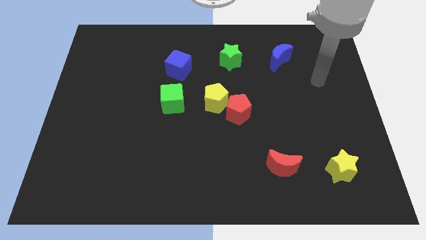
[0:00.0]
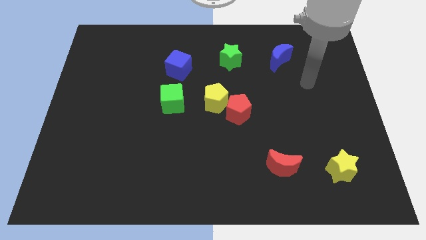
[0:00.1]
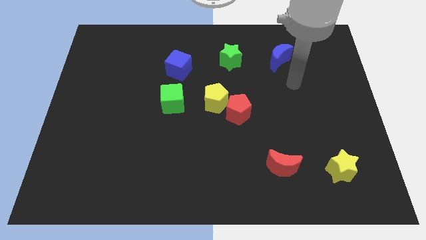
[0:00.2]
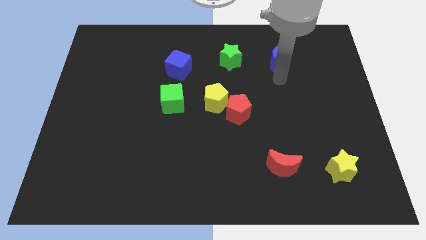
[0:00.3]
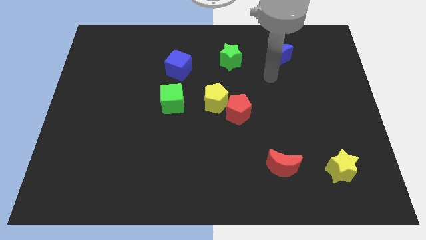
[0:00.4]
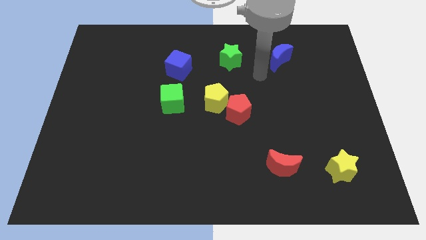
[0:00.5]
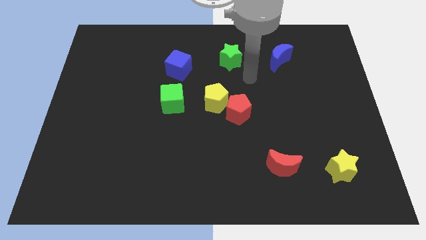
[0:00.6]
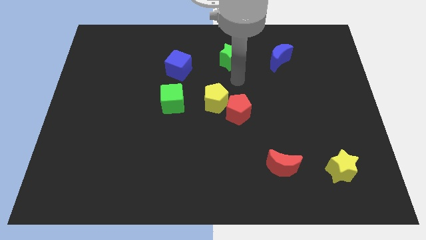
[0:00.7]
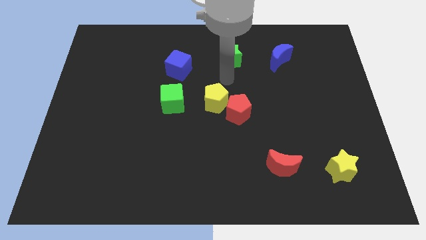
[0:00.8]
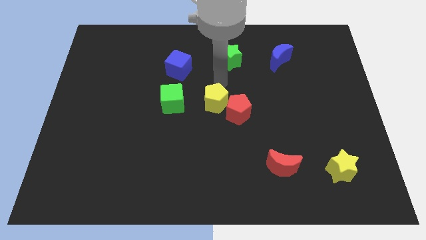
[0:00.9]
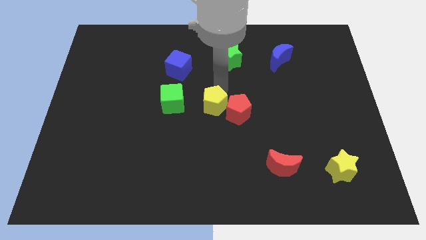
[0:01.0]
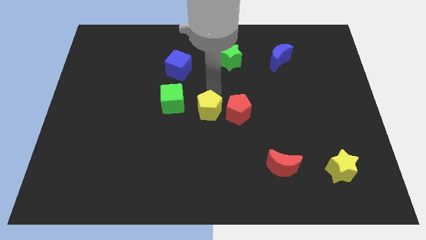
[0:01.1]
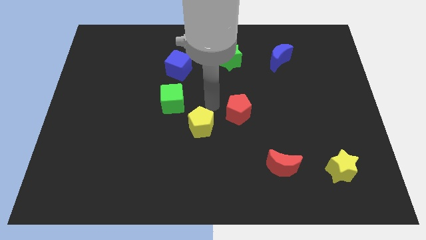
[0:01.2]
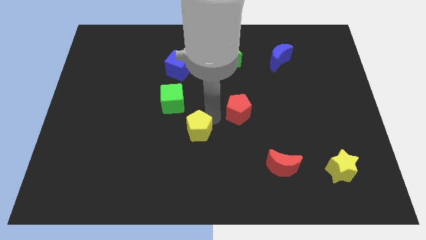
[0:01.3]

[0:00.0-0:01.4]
move the red pentagon away from the yellow pentagon

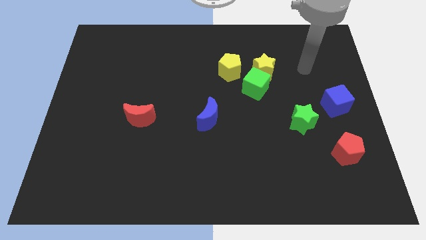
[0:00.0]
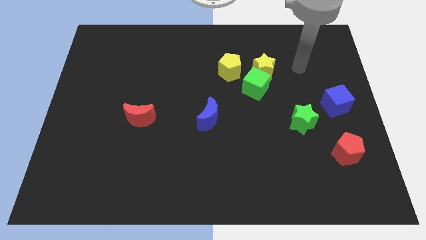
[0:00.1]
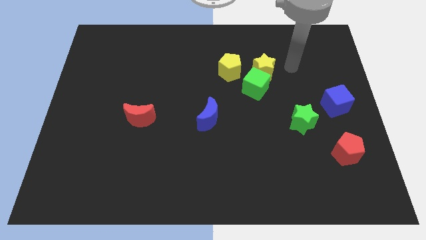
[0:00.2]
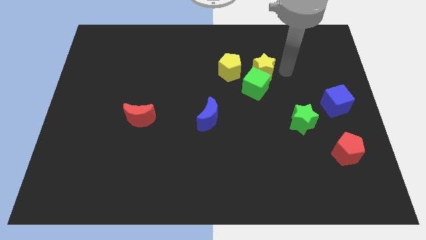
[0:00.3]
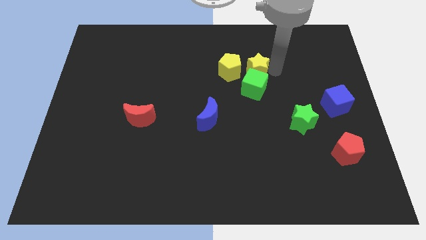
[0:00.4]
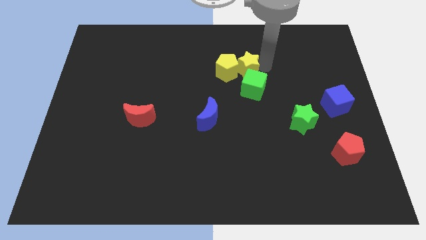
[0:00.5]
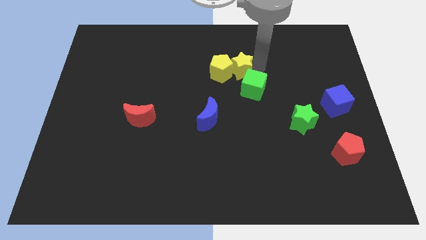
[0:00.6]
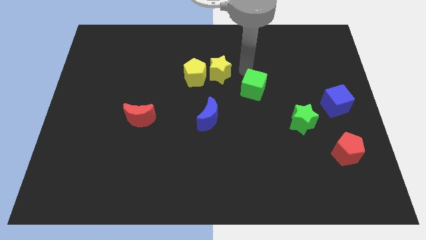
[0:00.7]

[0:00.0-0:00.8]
pull the green cube apart from the yellow star and yellow pentagon

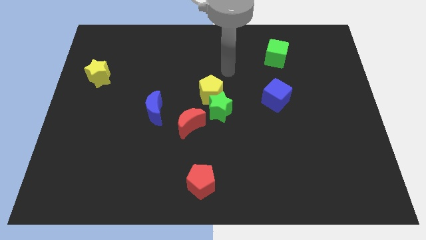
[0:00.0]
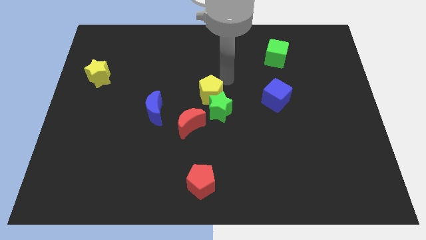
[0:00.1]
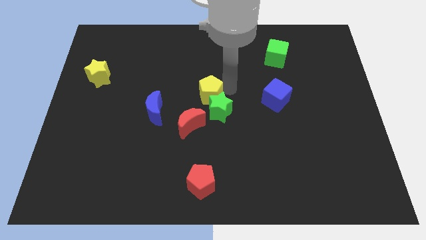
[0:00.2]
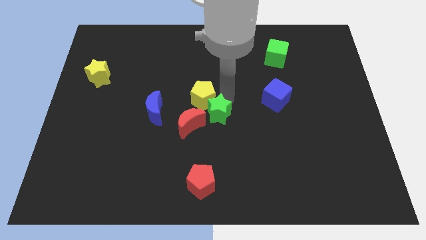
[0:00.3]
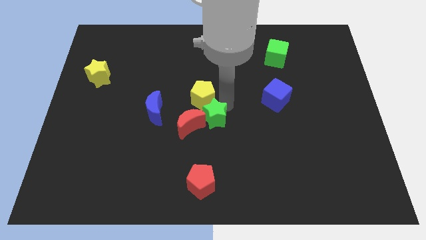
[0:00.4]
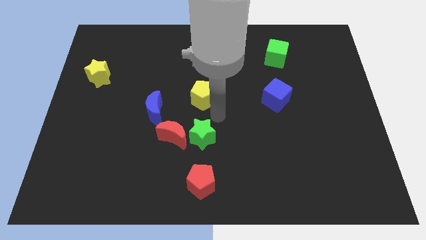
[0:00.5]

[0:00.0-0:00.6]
separate the yellow pentagon from the green star

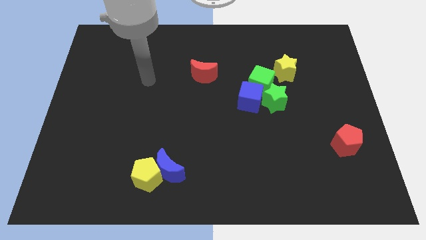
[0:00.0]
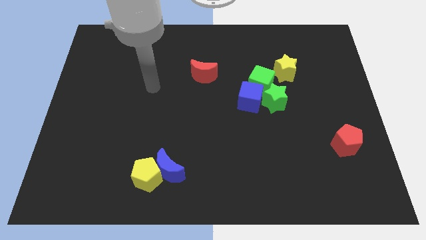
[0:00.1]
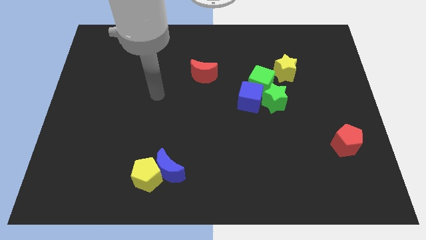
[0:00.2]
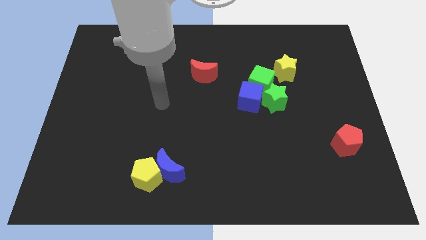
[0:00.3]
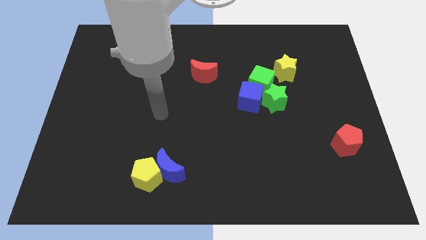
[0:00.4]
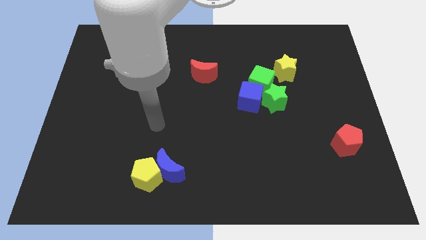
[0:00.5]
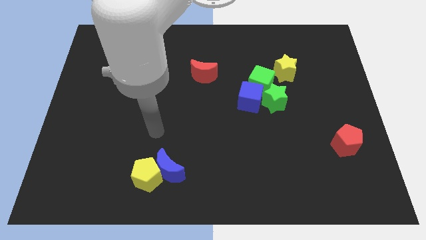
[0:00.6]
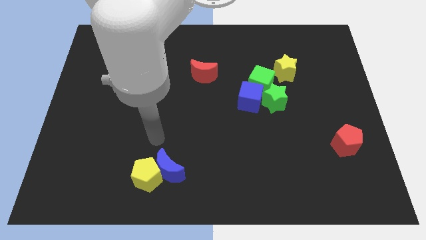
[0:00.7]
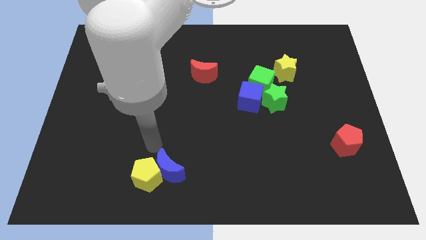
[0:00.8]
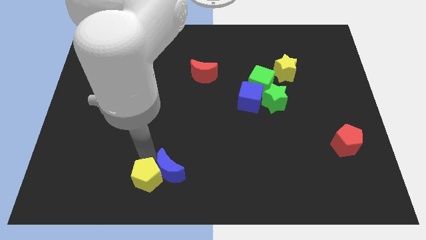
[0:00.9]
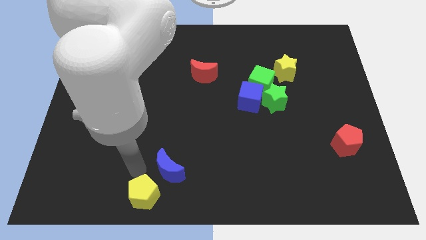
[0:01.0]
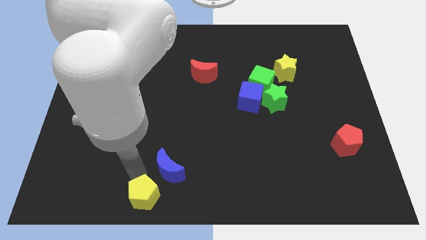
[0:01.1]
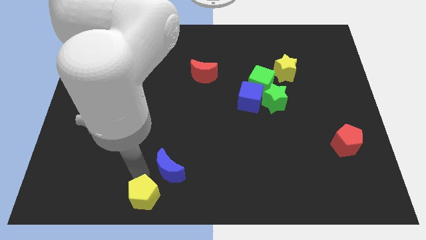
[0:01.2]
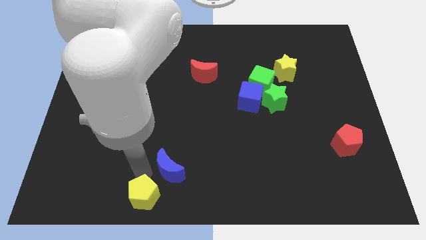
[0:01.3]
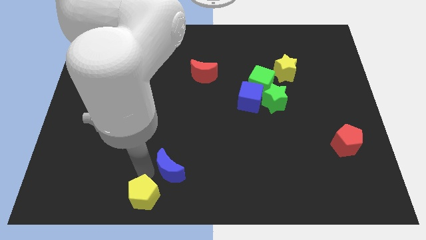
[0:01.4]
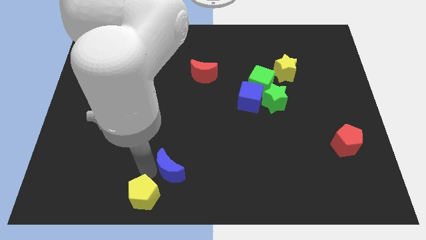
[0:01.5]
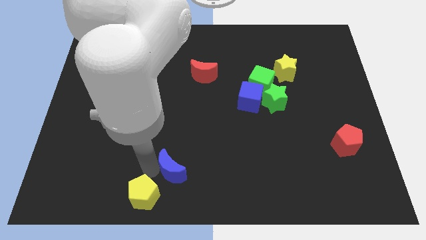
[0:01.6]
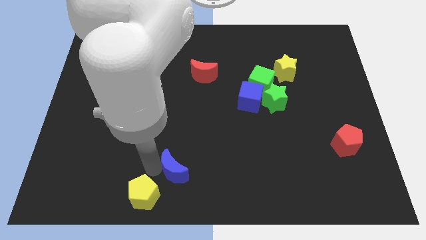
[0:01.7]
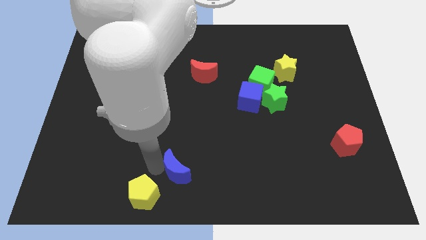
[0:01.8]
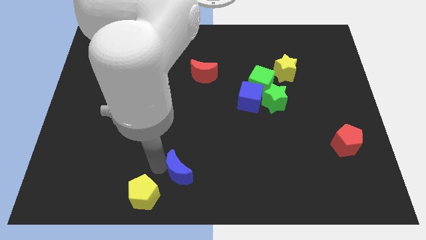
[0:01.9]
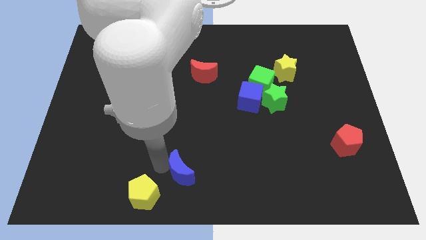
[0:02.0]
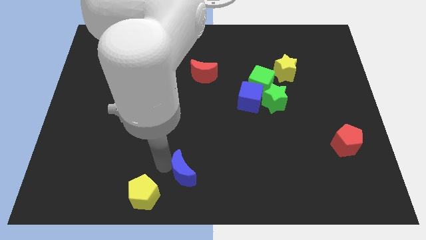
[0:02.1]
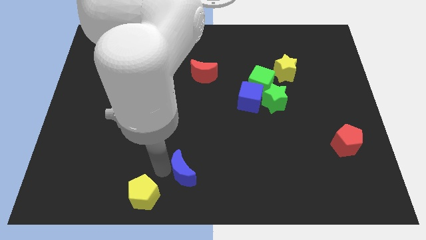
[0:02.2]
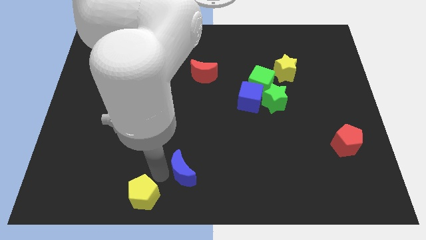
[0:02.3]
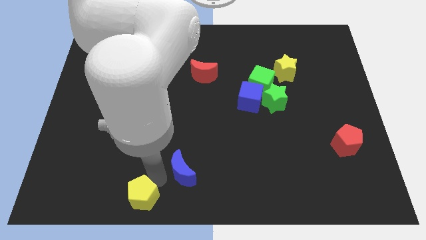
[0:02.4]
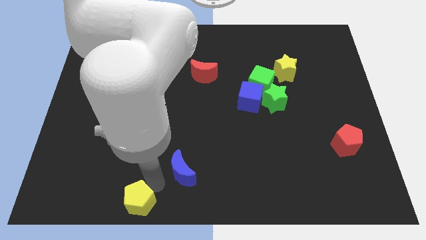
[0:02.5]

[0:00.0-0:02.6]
separate the blue moon from the yellow pentagon

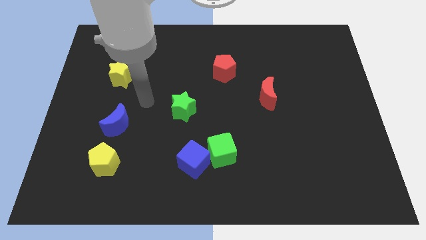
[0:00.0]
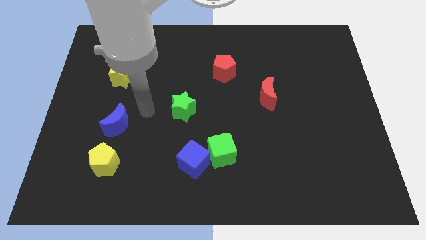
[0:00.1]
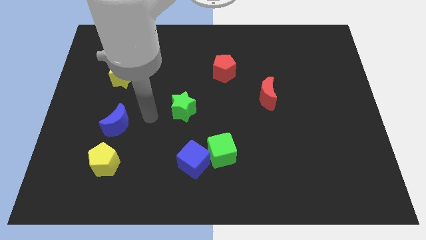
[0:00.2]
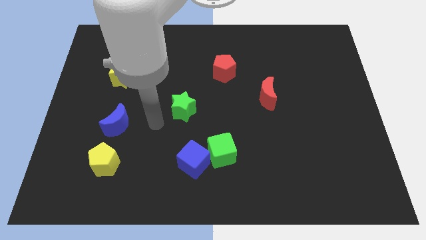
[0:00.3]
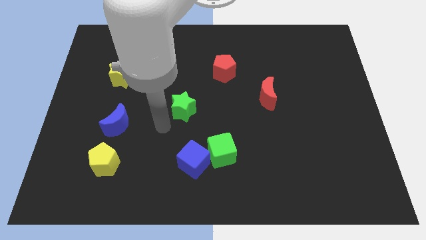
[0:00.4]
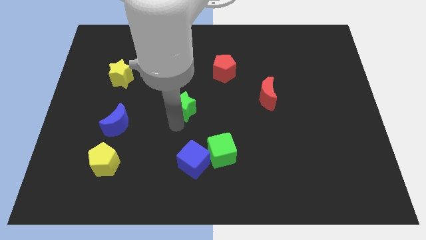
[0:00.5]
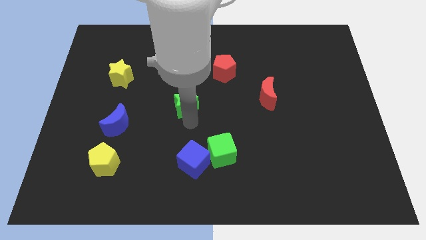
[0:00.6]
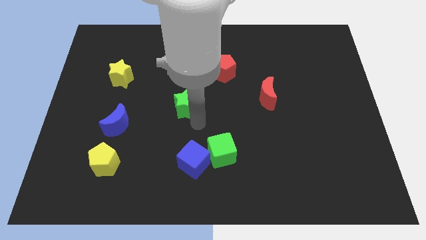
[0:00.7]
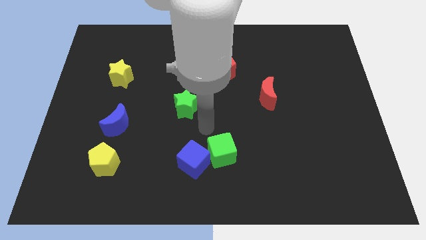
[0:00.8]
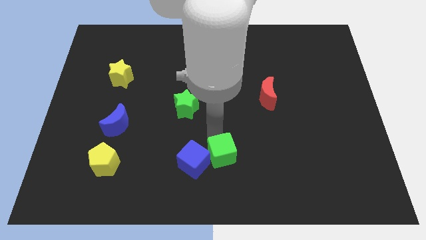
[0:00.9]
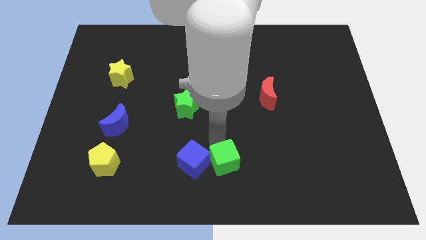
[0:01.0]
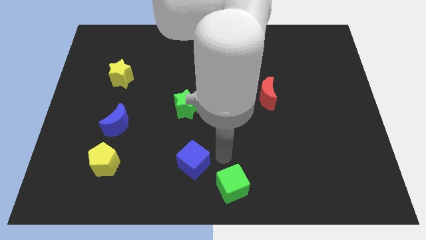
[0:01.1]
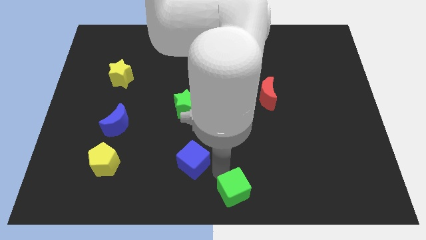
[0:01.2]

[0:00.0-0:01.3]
separate the blue cube from the green cube

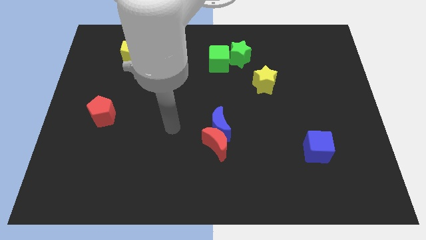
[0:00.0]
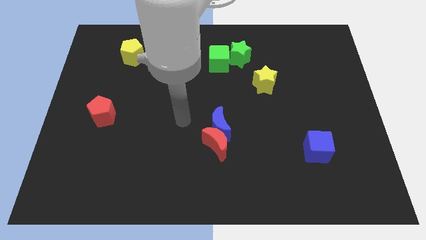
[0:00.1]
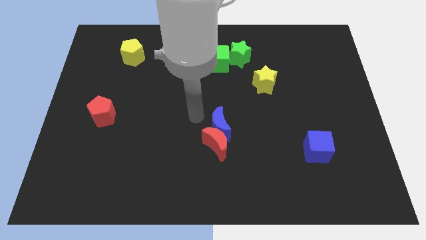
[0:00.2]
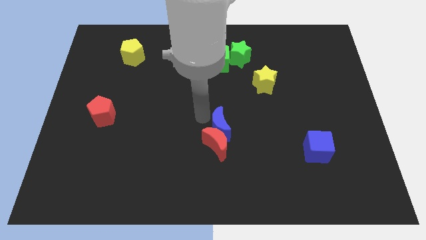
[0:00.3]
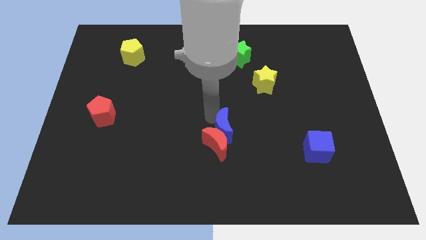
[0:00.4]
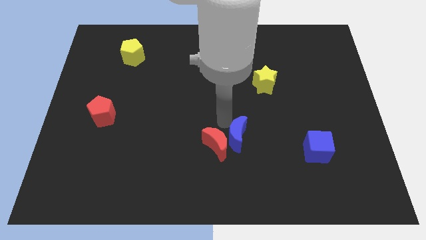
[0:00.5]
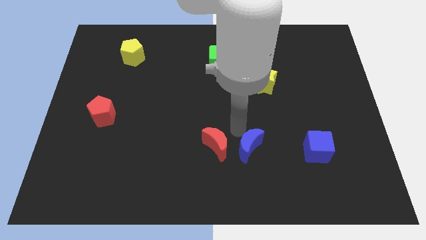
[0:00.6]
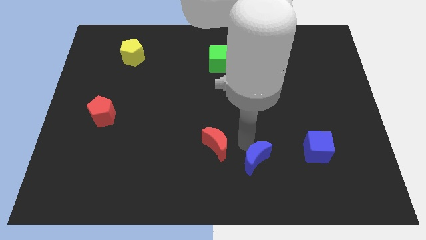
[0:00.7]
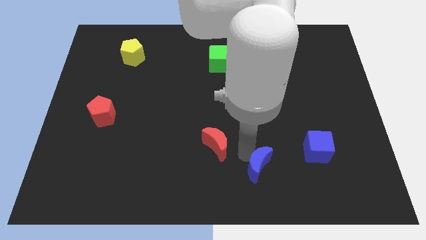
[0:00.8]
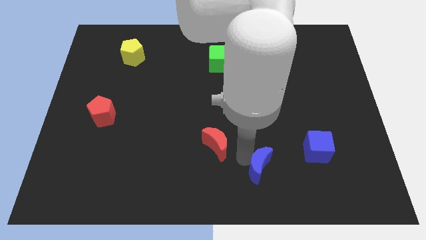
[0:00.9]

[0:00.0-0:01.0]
move the red moon away from the blue moon

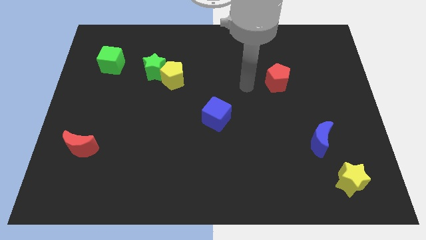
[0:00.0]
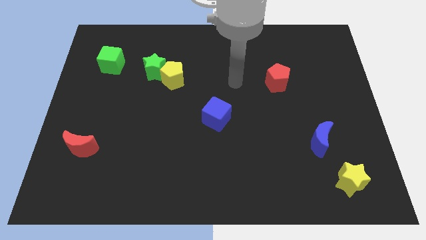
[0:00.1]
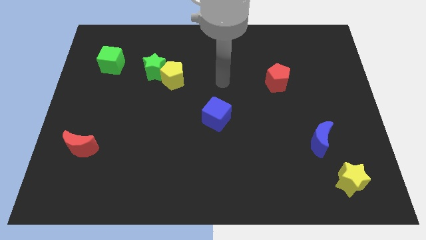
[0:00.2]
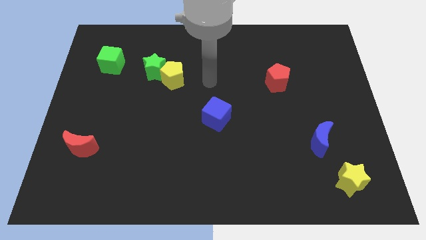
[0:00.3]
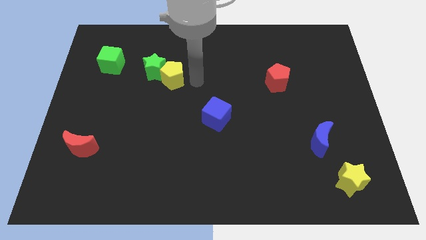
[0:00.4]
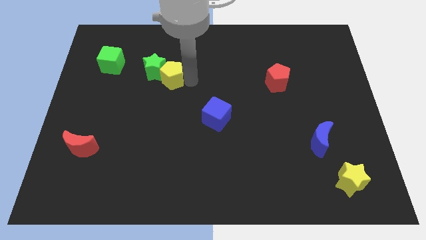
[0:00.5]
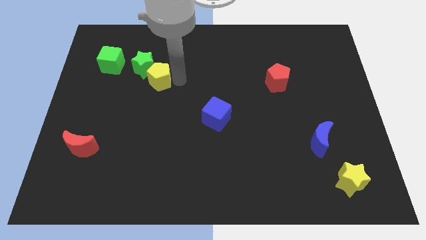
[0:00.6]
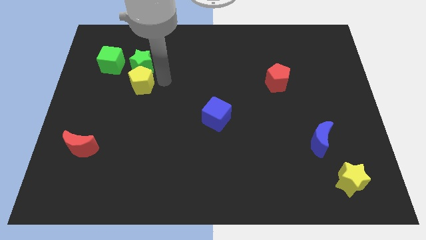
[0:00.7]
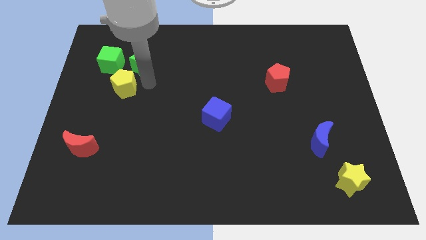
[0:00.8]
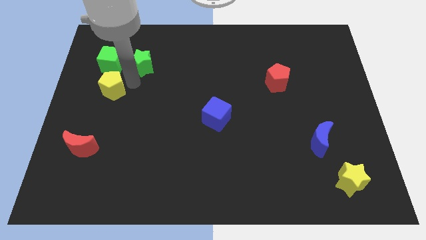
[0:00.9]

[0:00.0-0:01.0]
separate the green star from the yellow pentagon

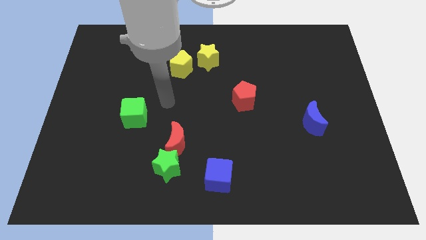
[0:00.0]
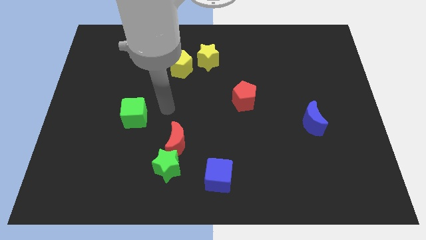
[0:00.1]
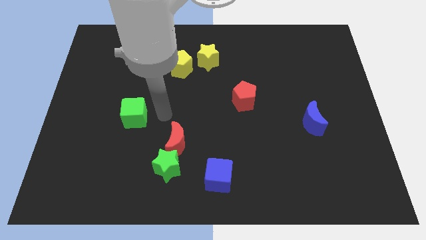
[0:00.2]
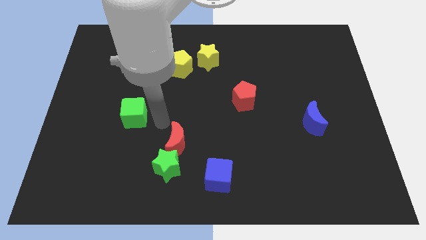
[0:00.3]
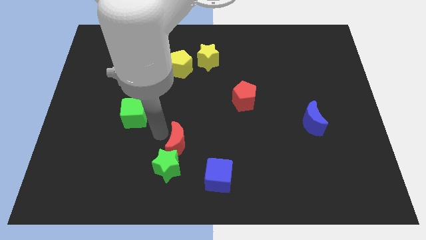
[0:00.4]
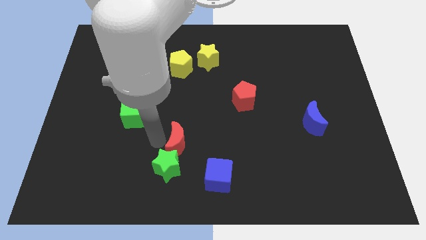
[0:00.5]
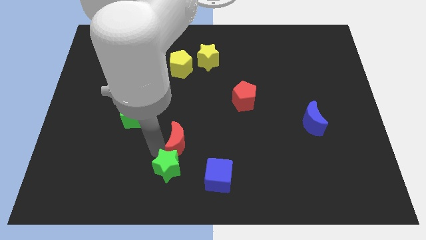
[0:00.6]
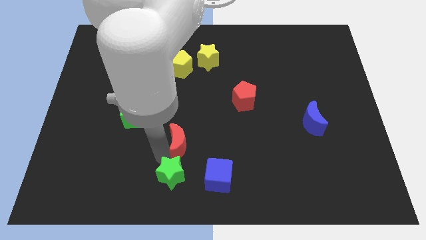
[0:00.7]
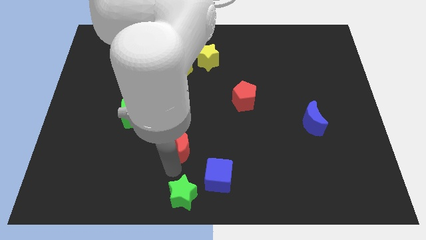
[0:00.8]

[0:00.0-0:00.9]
pull the red moon apart from the green star
